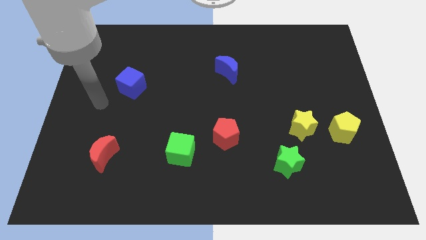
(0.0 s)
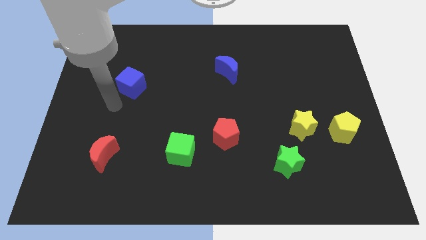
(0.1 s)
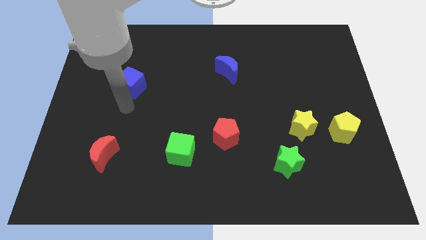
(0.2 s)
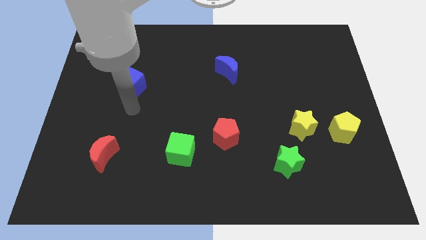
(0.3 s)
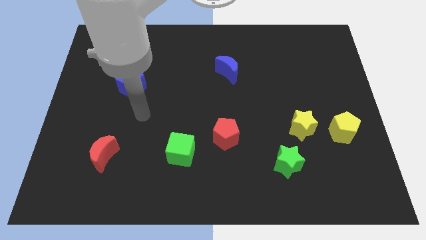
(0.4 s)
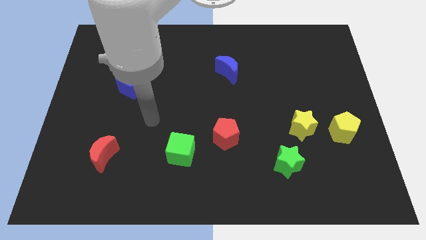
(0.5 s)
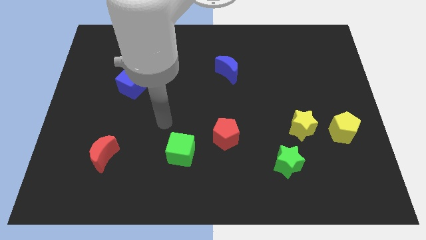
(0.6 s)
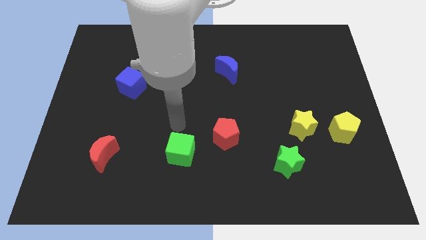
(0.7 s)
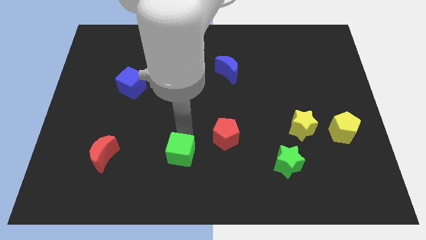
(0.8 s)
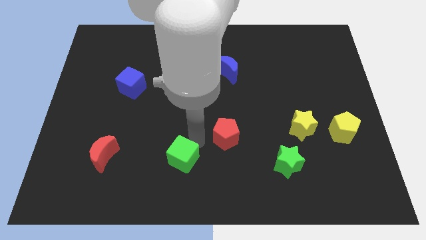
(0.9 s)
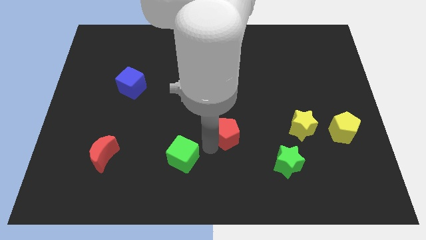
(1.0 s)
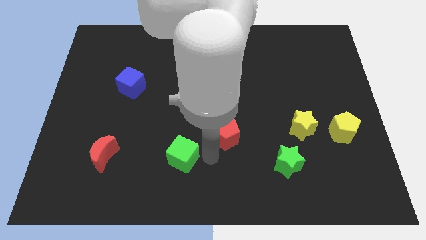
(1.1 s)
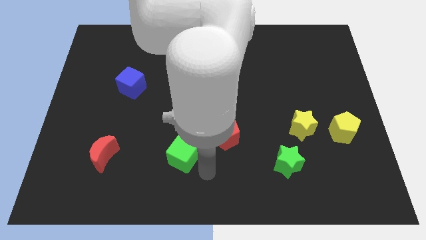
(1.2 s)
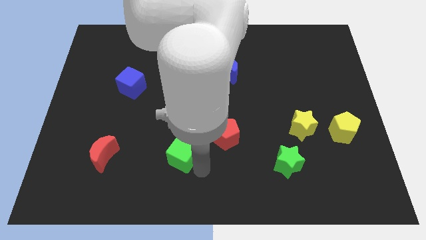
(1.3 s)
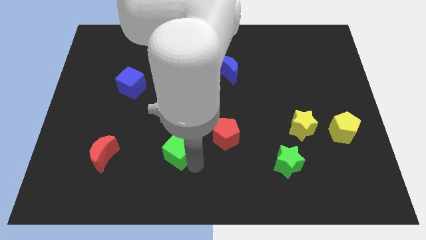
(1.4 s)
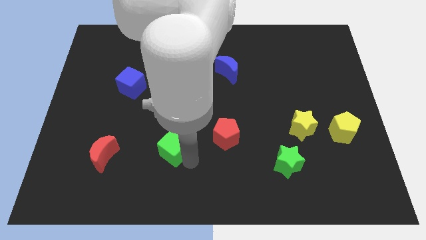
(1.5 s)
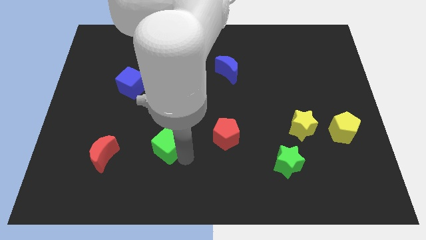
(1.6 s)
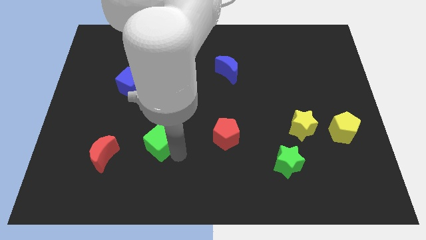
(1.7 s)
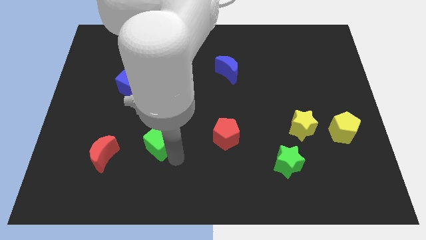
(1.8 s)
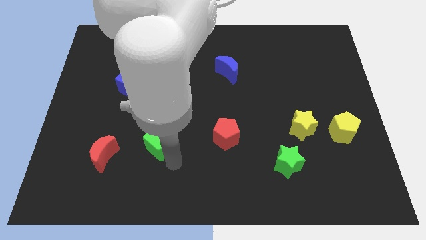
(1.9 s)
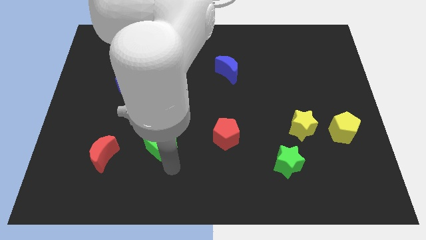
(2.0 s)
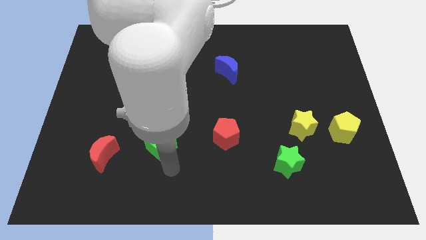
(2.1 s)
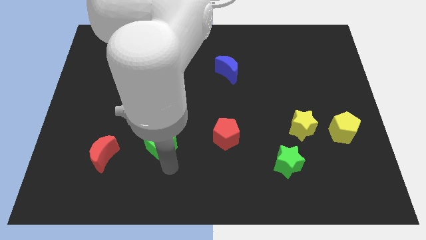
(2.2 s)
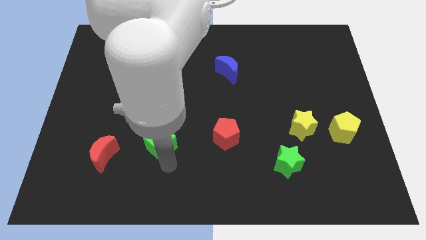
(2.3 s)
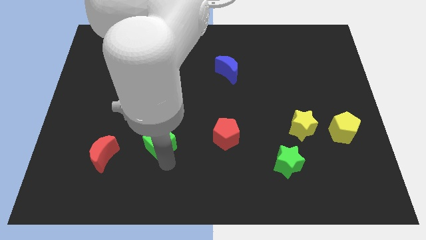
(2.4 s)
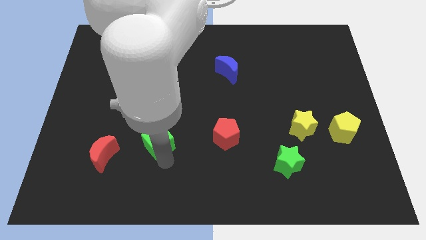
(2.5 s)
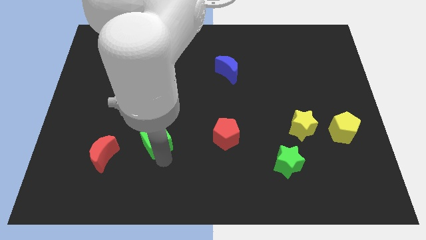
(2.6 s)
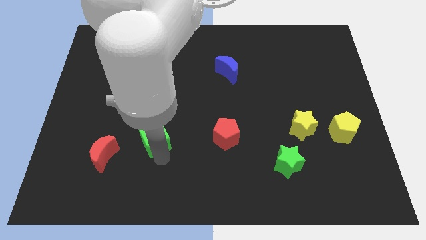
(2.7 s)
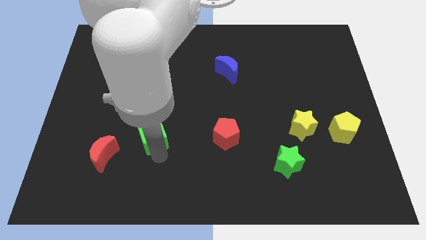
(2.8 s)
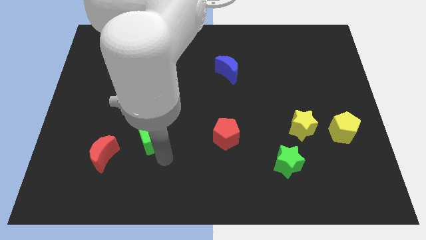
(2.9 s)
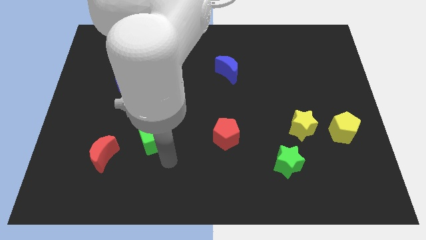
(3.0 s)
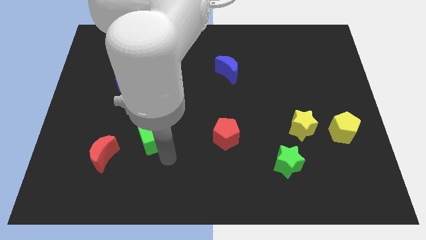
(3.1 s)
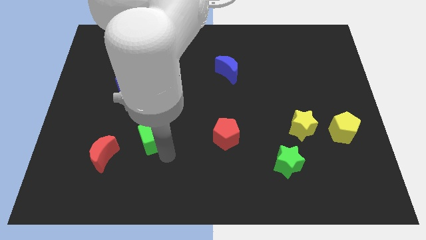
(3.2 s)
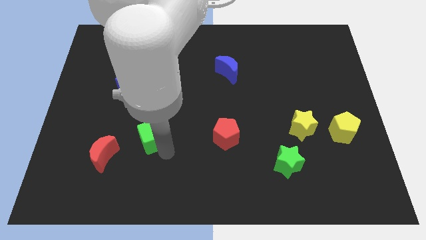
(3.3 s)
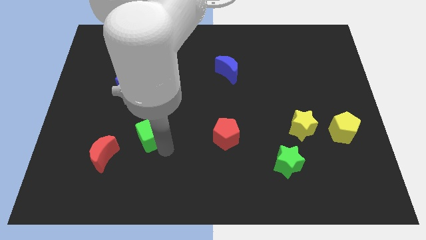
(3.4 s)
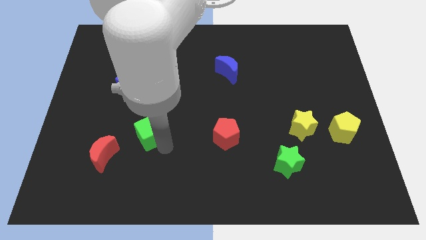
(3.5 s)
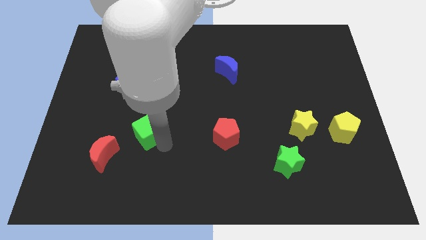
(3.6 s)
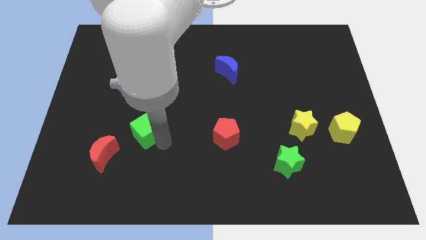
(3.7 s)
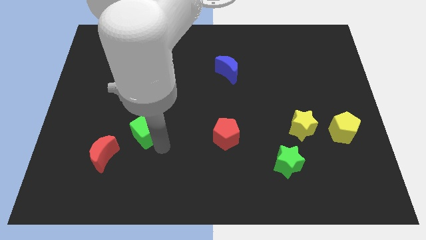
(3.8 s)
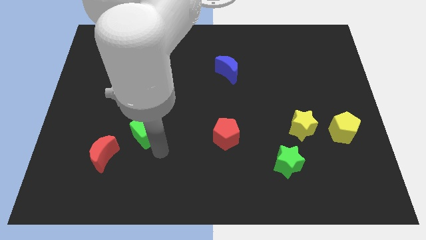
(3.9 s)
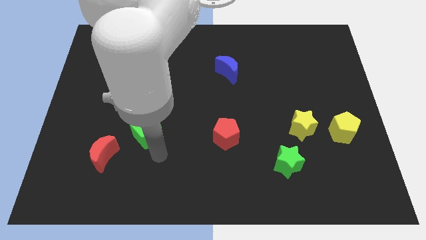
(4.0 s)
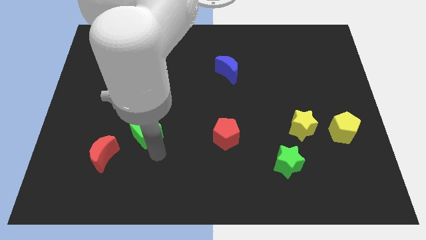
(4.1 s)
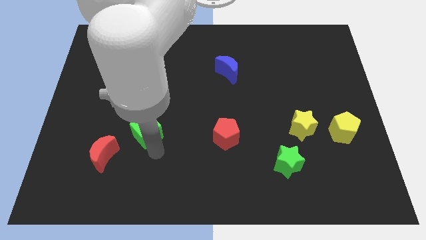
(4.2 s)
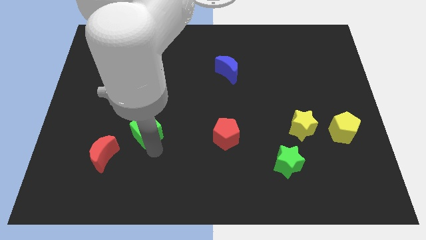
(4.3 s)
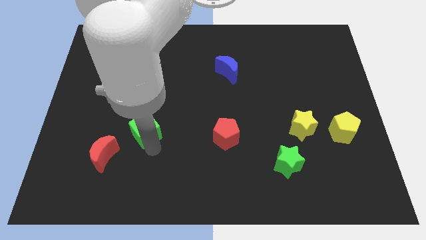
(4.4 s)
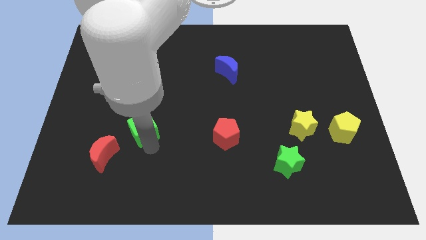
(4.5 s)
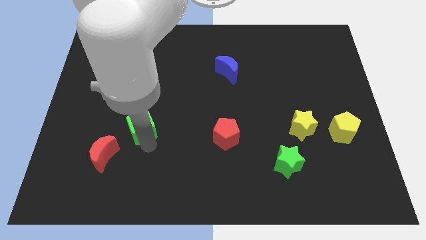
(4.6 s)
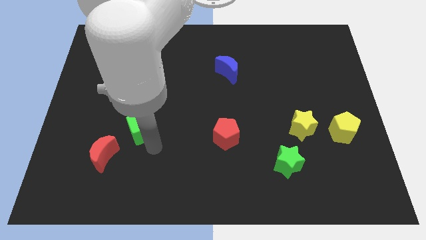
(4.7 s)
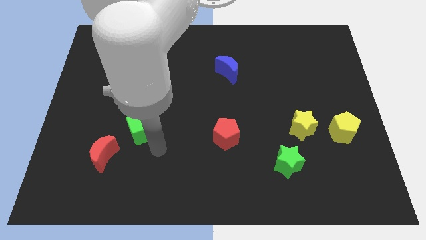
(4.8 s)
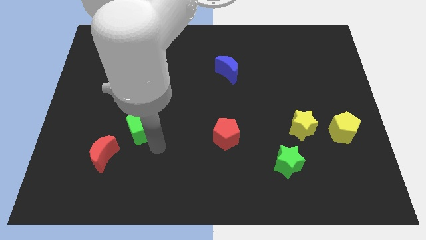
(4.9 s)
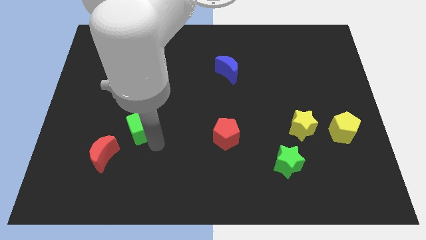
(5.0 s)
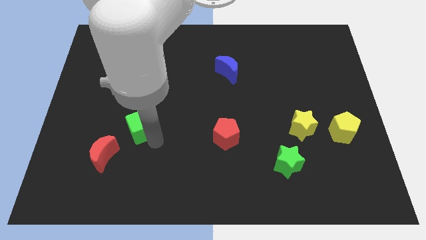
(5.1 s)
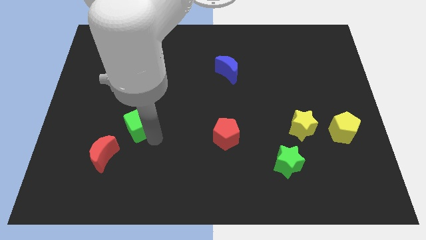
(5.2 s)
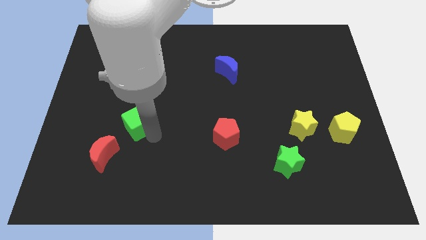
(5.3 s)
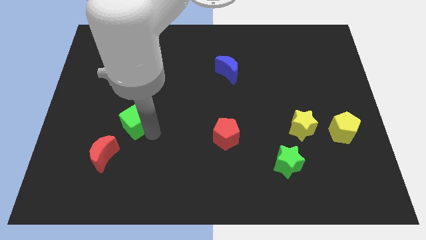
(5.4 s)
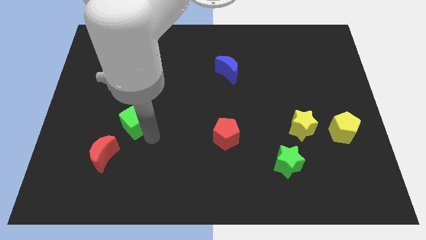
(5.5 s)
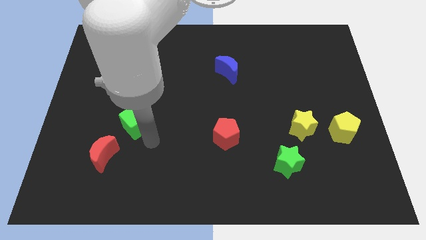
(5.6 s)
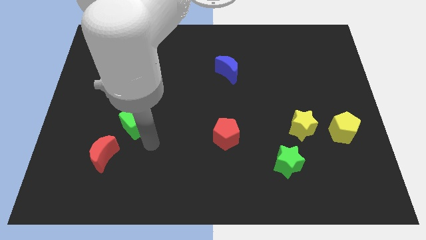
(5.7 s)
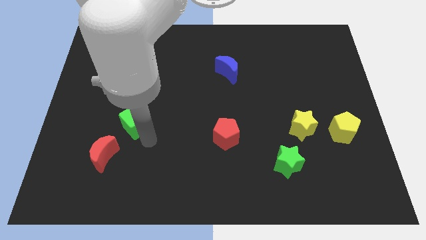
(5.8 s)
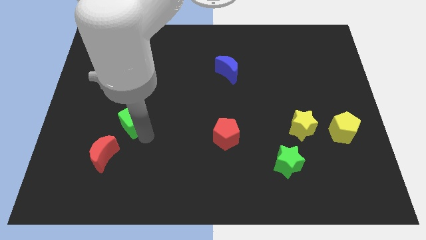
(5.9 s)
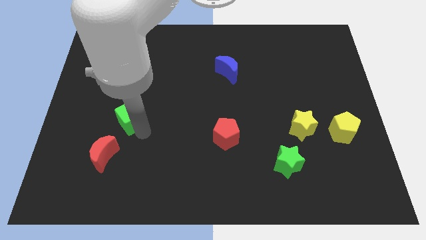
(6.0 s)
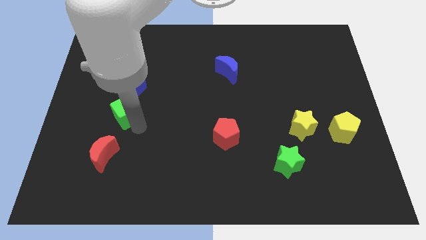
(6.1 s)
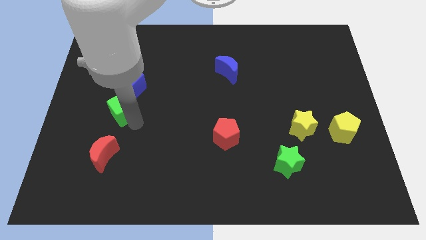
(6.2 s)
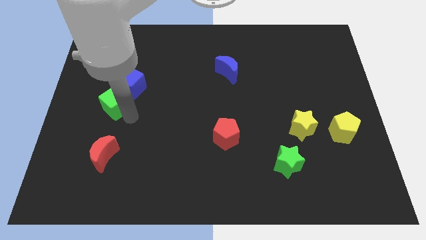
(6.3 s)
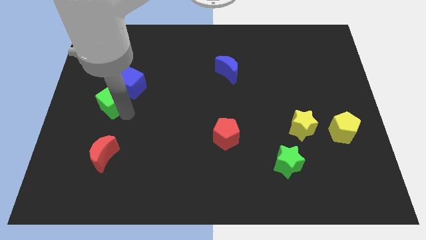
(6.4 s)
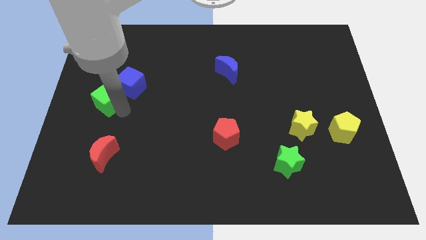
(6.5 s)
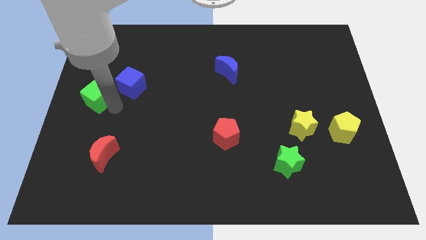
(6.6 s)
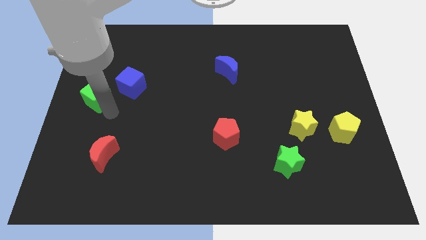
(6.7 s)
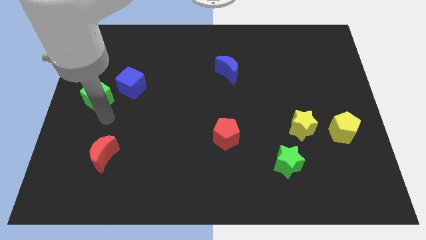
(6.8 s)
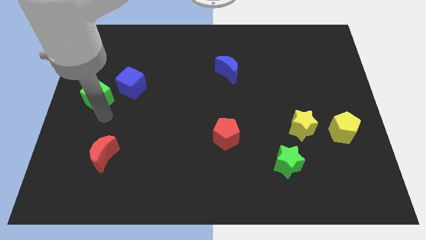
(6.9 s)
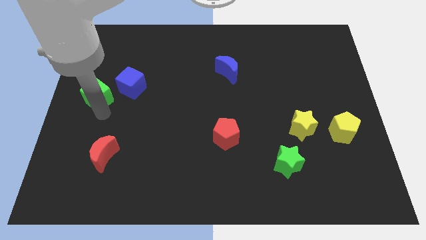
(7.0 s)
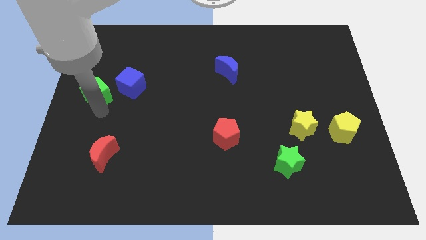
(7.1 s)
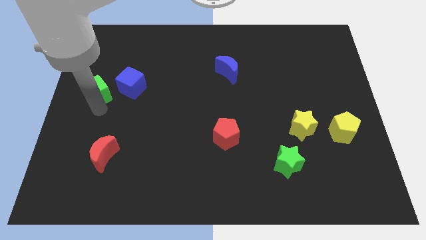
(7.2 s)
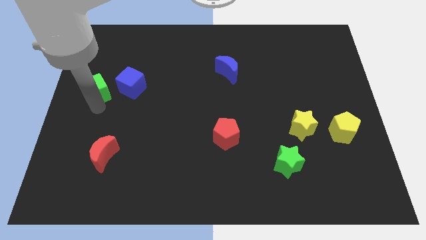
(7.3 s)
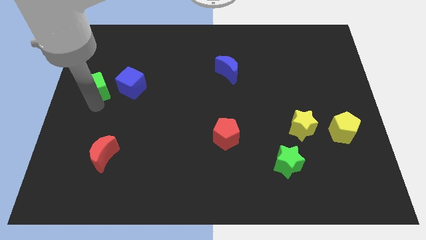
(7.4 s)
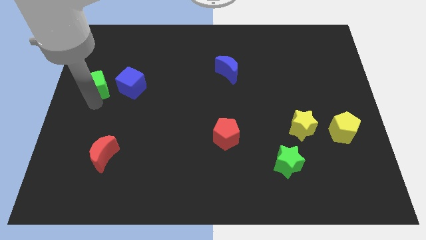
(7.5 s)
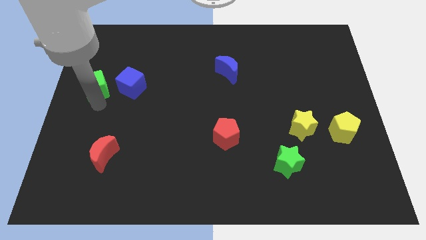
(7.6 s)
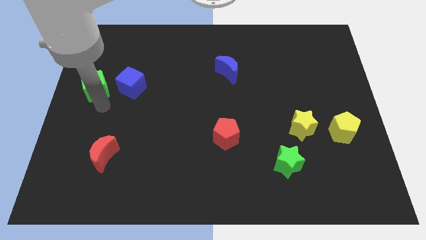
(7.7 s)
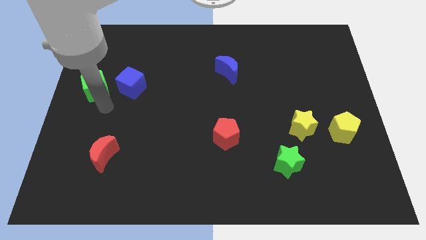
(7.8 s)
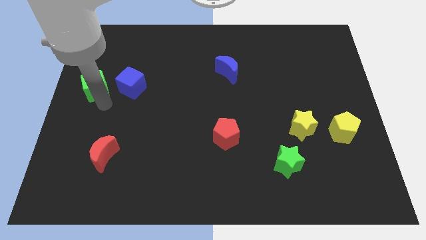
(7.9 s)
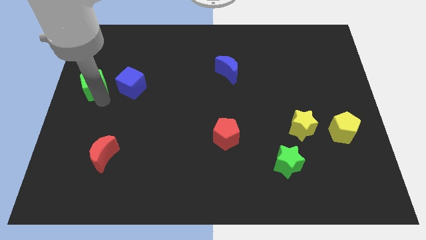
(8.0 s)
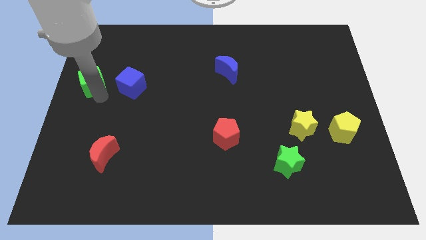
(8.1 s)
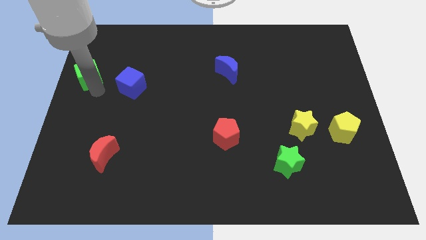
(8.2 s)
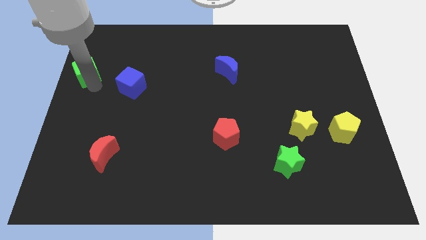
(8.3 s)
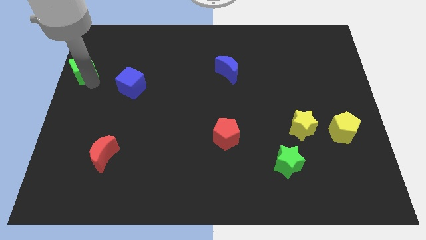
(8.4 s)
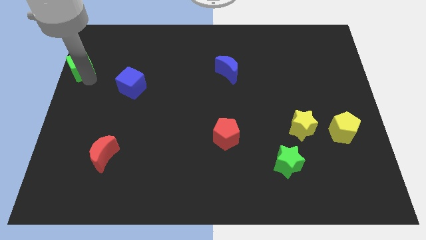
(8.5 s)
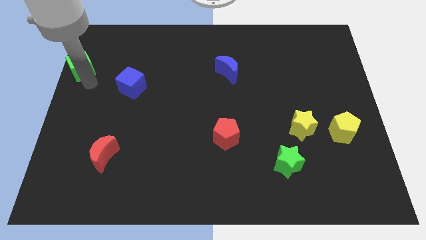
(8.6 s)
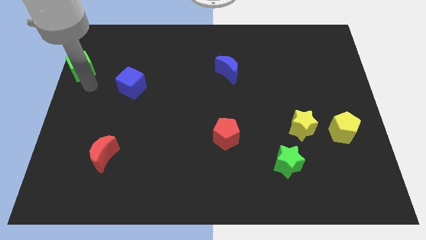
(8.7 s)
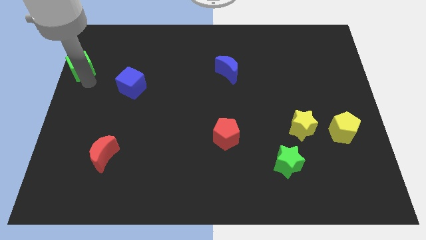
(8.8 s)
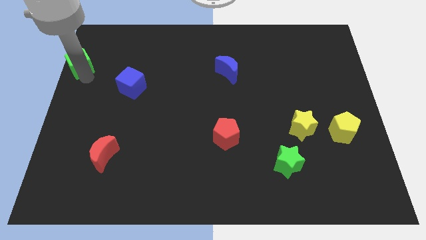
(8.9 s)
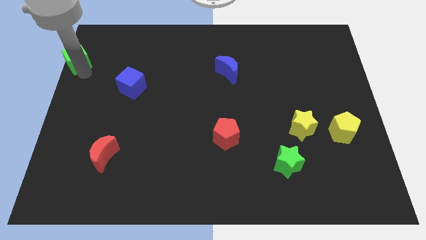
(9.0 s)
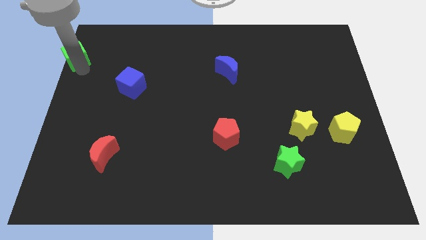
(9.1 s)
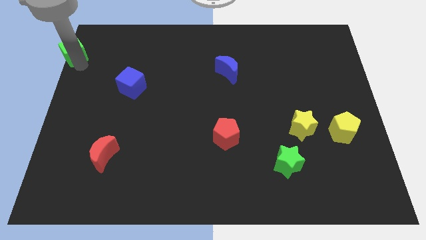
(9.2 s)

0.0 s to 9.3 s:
push the green cube to the upper left corner
